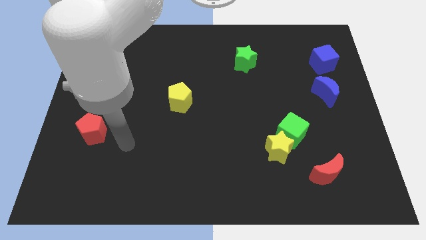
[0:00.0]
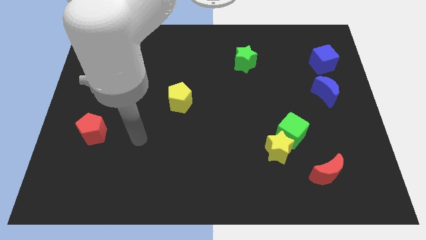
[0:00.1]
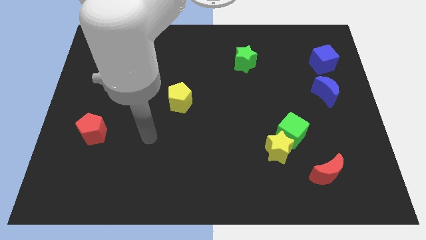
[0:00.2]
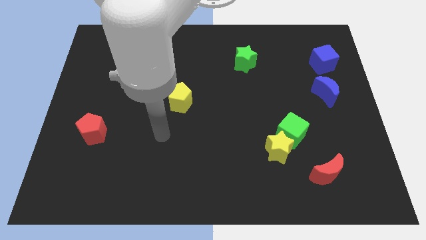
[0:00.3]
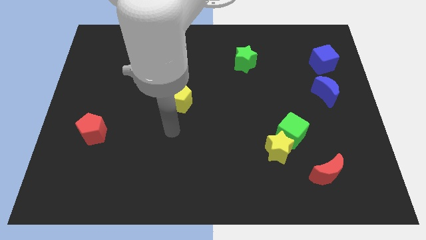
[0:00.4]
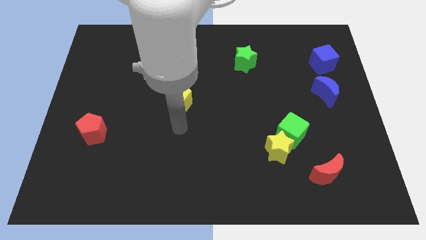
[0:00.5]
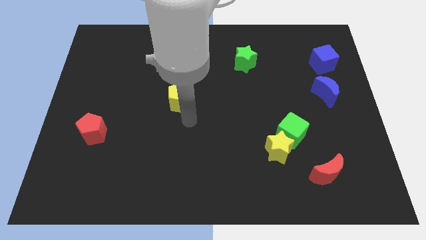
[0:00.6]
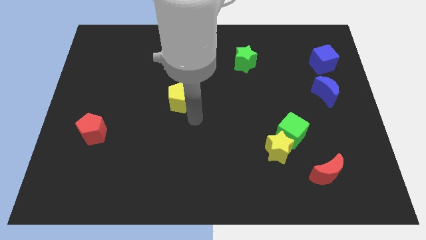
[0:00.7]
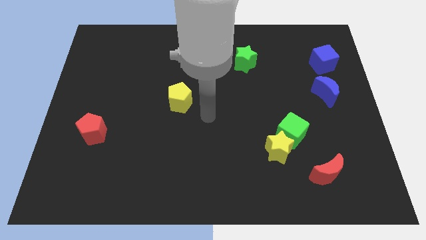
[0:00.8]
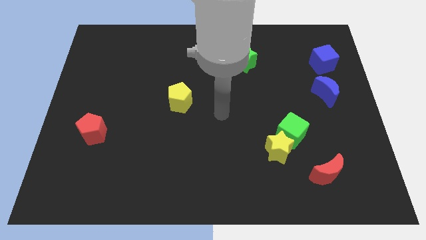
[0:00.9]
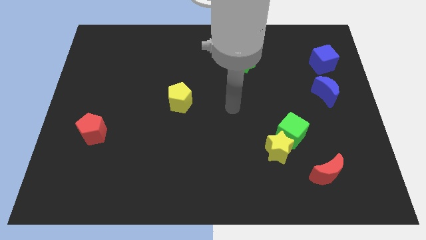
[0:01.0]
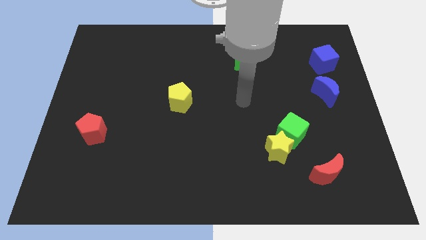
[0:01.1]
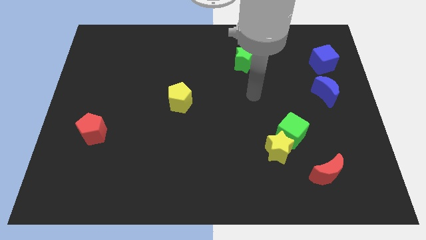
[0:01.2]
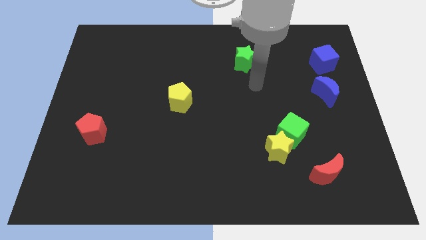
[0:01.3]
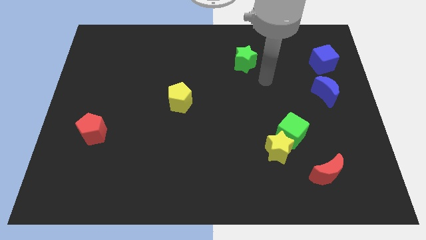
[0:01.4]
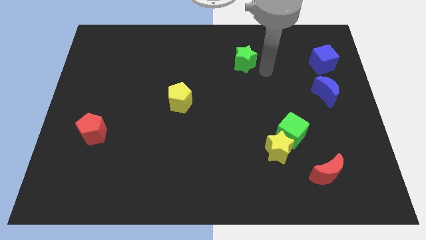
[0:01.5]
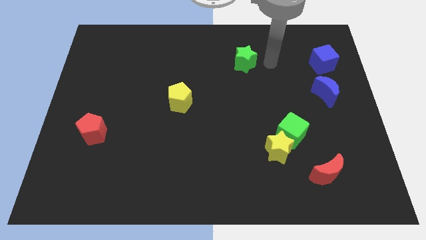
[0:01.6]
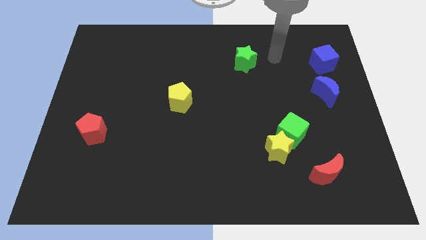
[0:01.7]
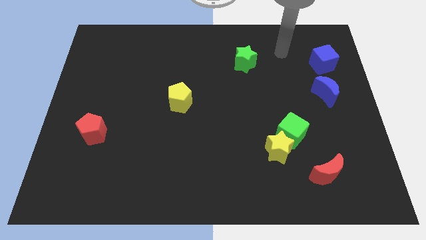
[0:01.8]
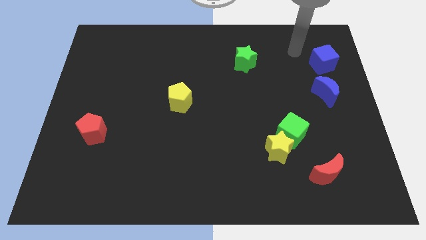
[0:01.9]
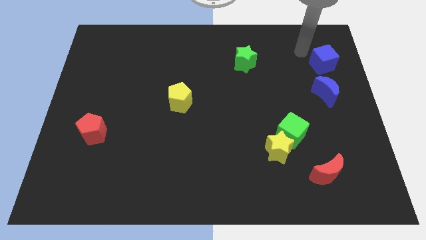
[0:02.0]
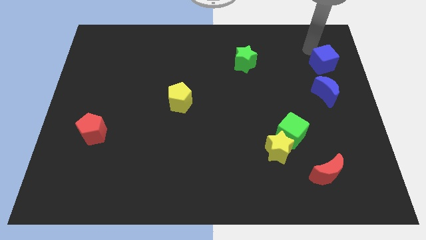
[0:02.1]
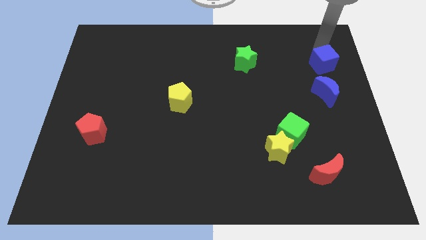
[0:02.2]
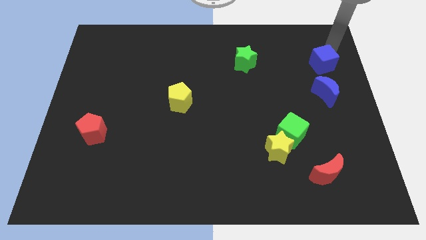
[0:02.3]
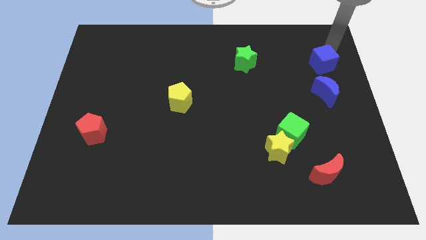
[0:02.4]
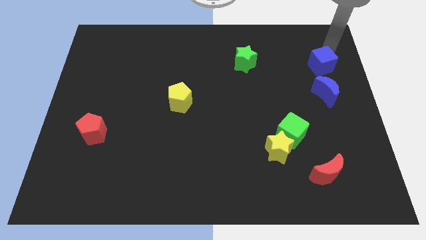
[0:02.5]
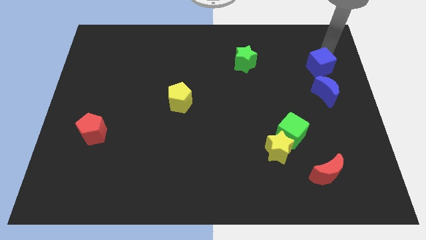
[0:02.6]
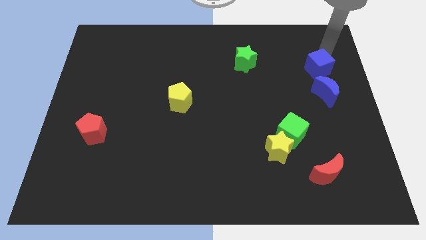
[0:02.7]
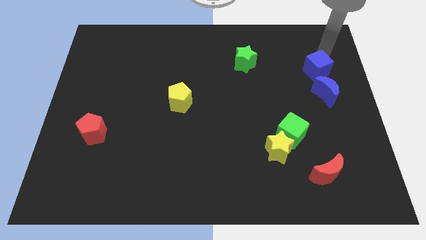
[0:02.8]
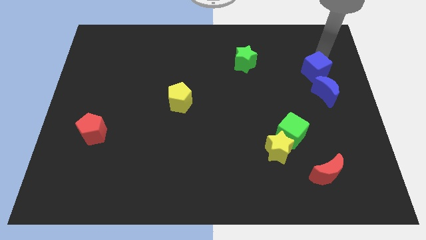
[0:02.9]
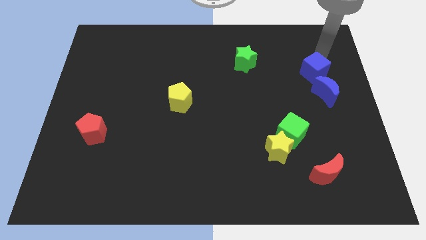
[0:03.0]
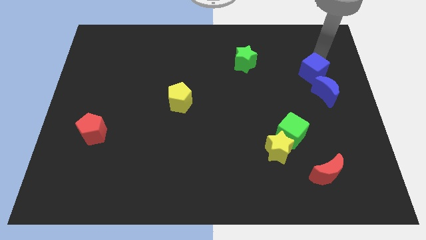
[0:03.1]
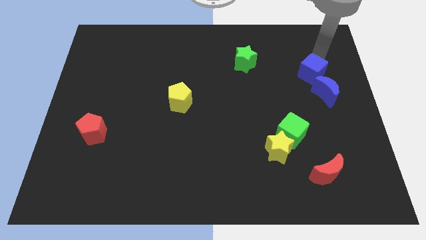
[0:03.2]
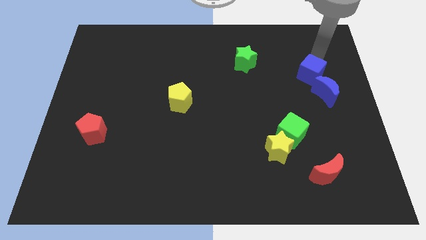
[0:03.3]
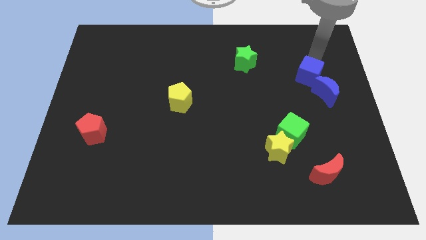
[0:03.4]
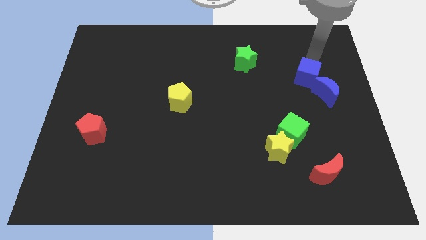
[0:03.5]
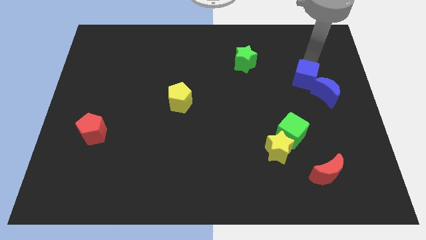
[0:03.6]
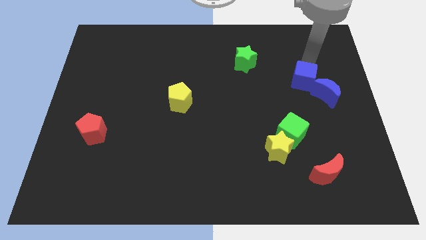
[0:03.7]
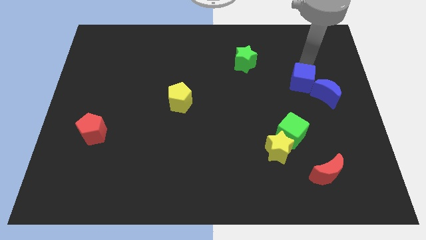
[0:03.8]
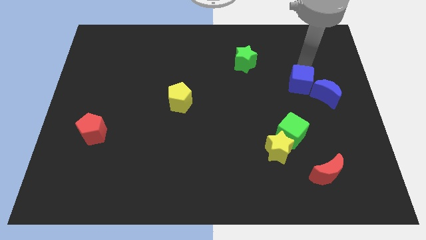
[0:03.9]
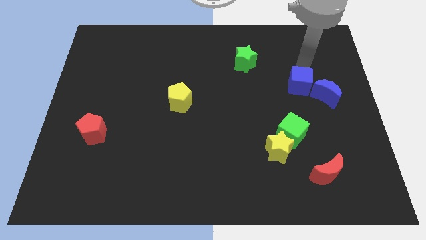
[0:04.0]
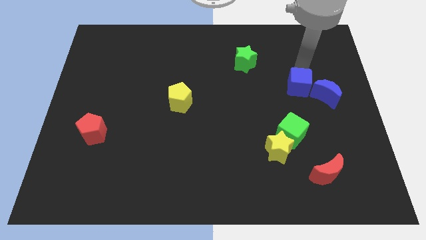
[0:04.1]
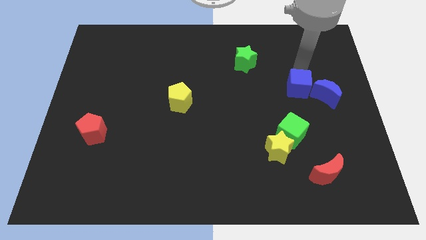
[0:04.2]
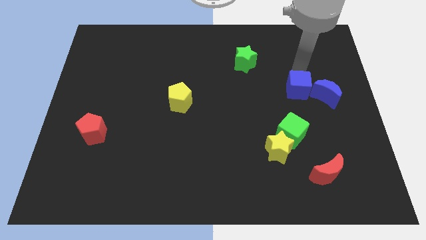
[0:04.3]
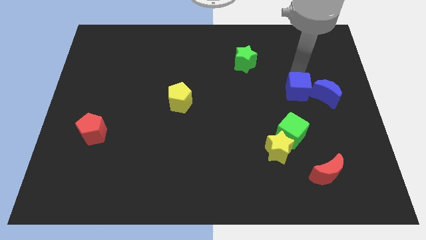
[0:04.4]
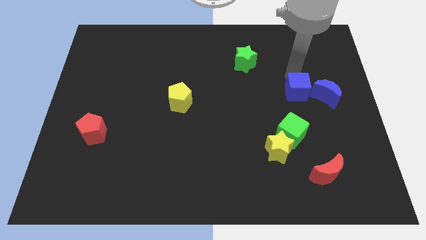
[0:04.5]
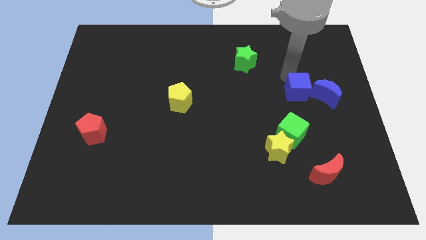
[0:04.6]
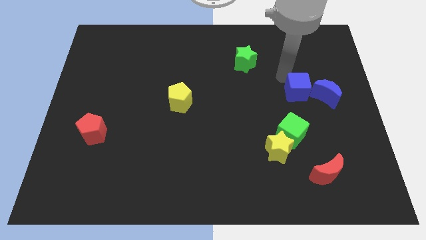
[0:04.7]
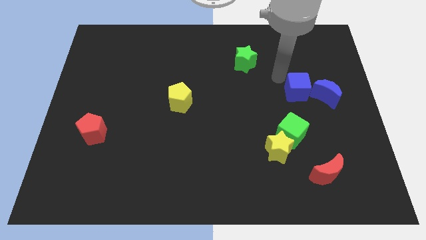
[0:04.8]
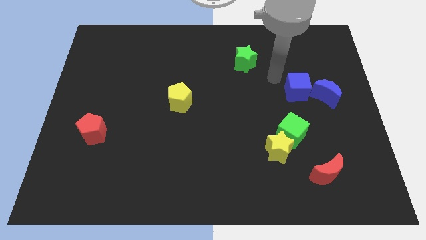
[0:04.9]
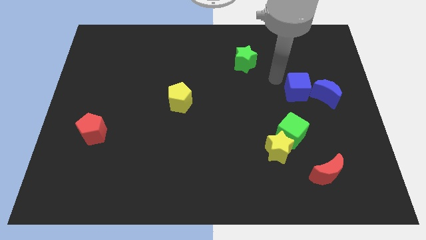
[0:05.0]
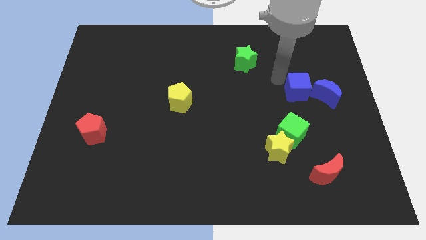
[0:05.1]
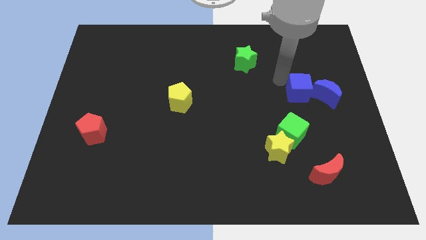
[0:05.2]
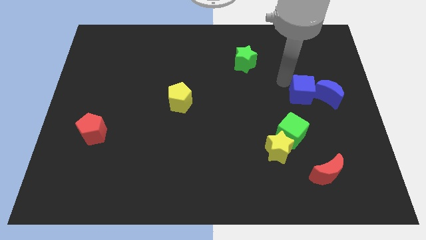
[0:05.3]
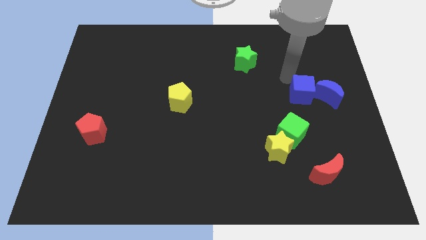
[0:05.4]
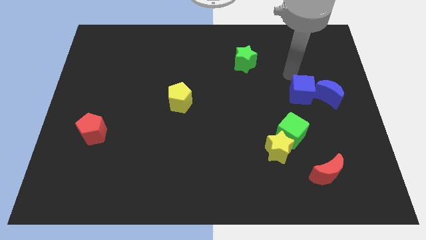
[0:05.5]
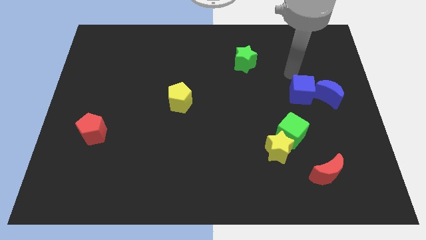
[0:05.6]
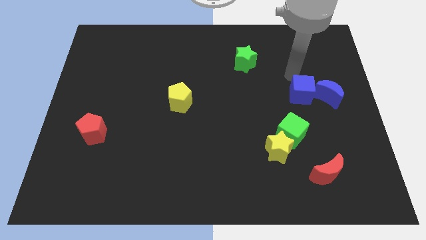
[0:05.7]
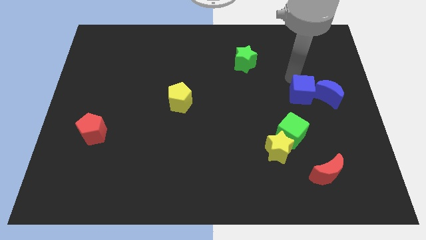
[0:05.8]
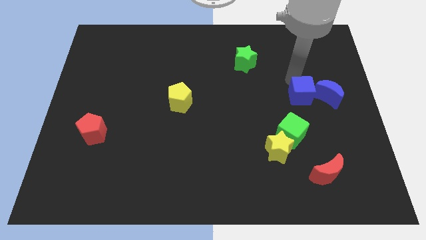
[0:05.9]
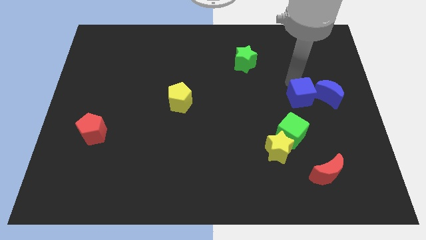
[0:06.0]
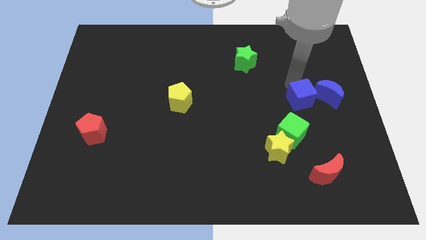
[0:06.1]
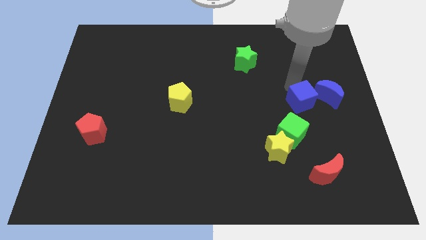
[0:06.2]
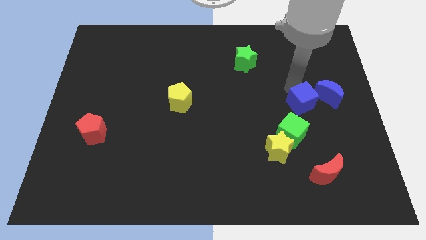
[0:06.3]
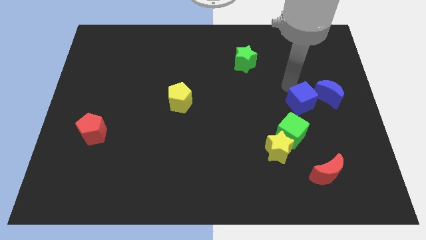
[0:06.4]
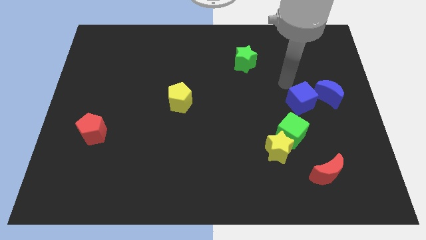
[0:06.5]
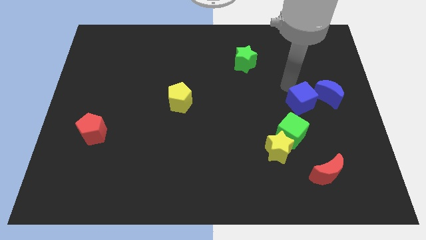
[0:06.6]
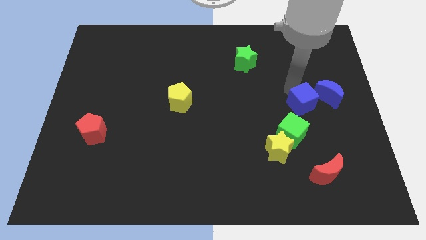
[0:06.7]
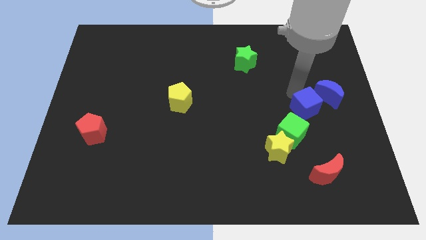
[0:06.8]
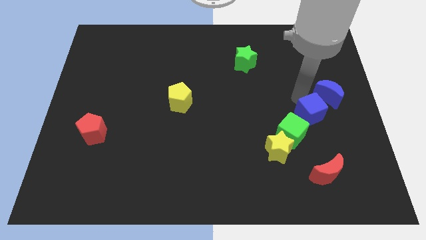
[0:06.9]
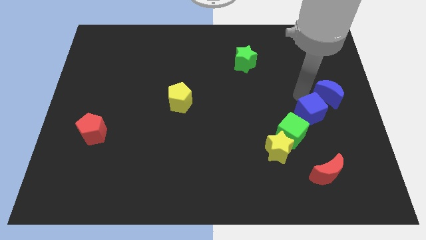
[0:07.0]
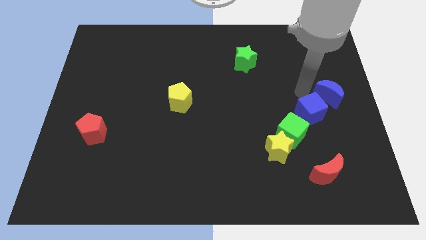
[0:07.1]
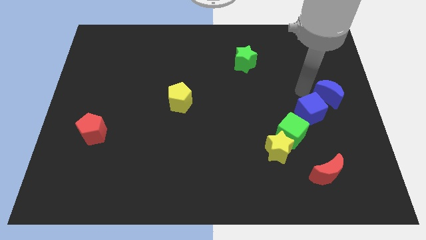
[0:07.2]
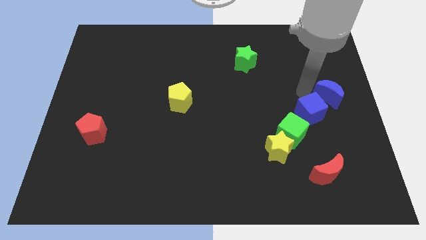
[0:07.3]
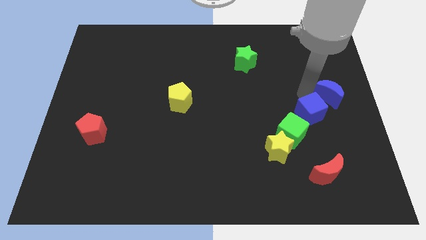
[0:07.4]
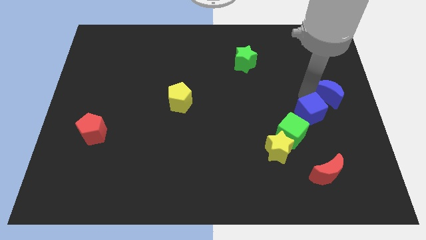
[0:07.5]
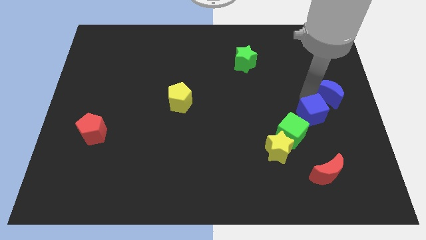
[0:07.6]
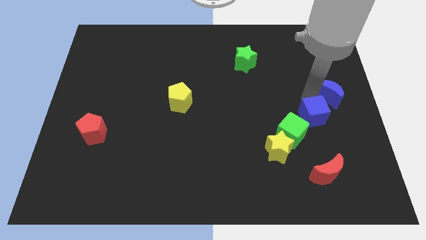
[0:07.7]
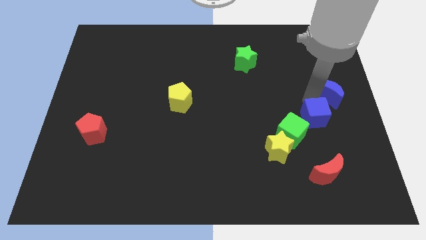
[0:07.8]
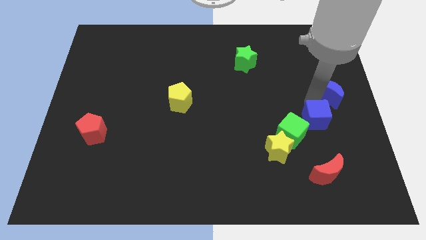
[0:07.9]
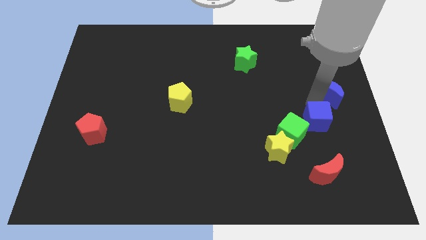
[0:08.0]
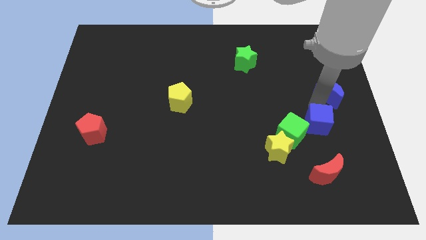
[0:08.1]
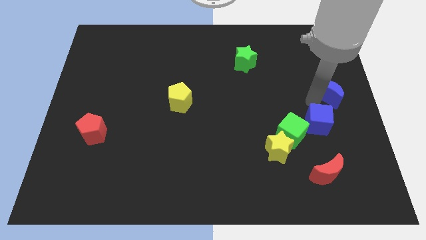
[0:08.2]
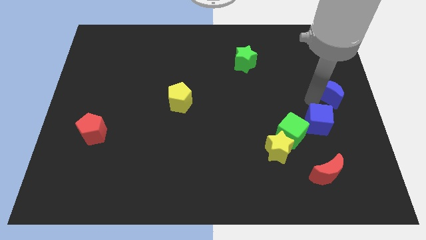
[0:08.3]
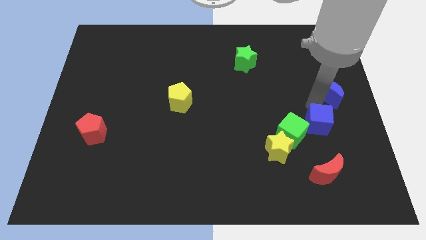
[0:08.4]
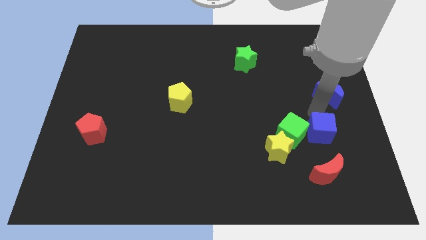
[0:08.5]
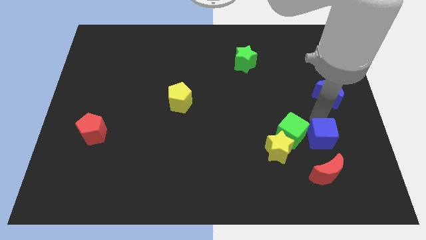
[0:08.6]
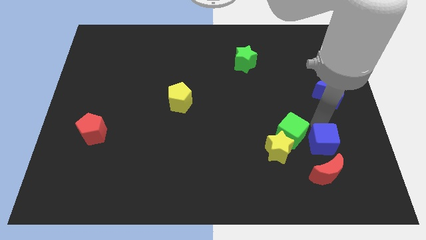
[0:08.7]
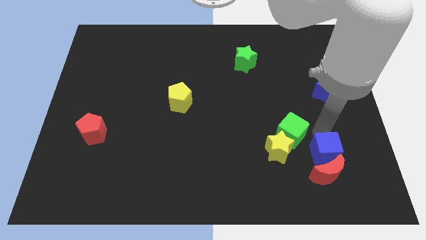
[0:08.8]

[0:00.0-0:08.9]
push the blue cube next to the red moon
